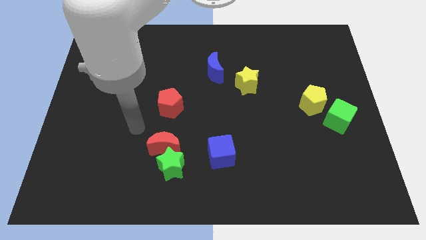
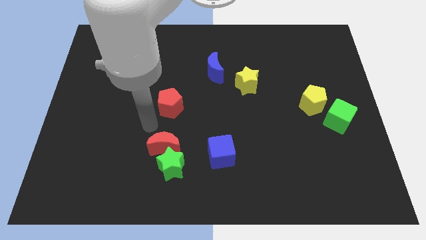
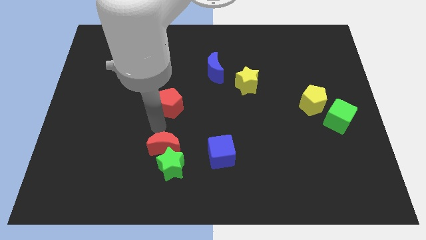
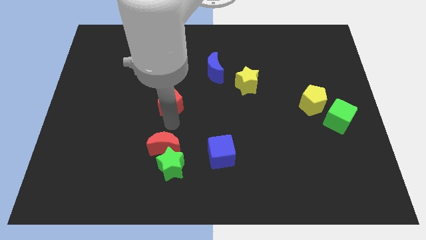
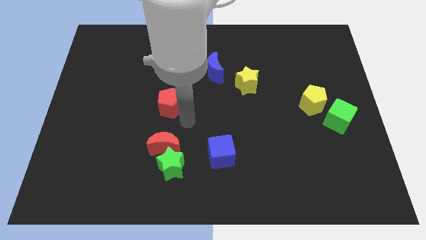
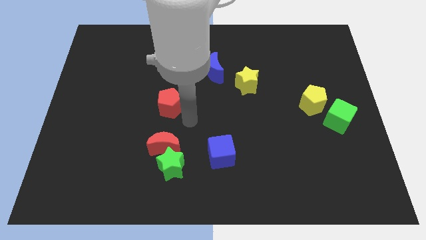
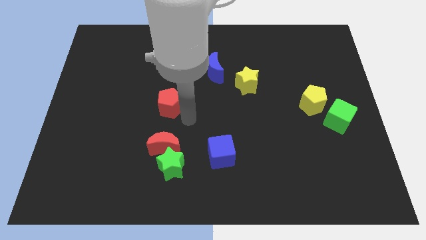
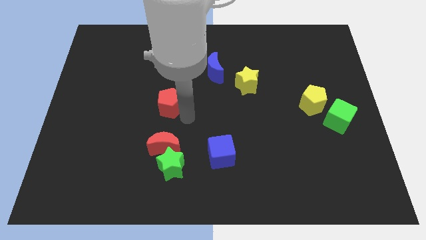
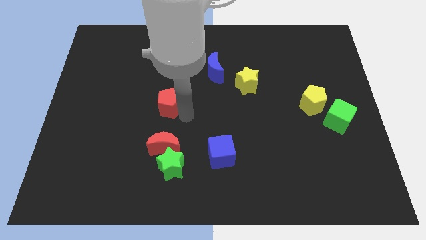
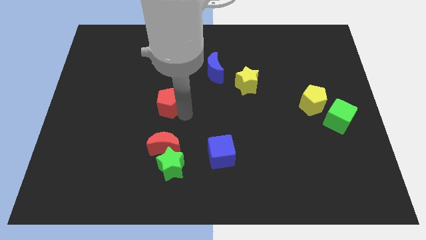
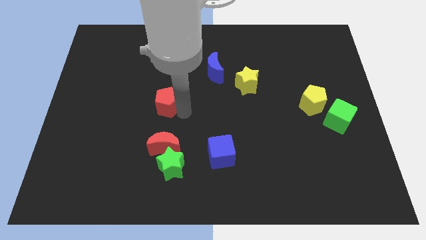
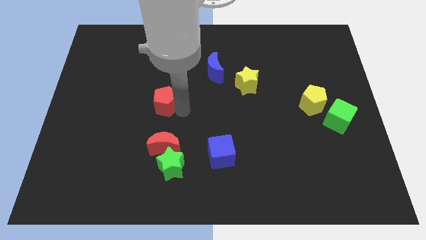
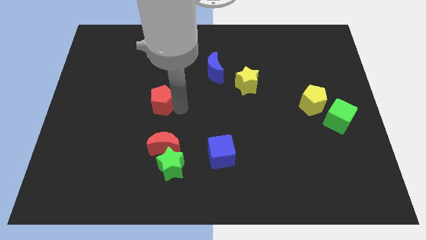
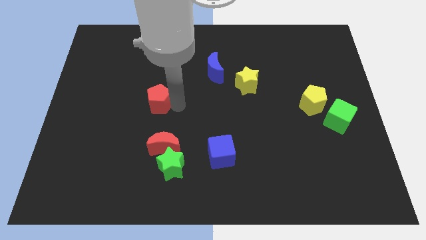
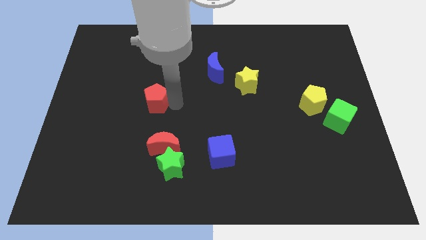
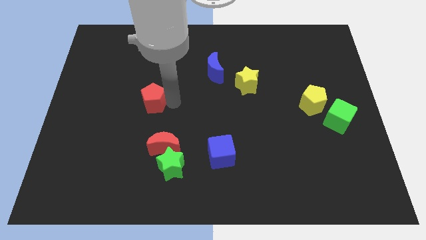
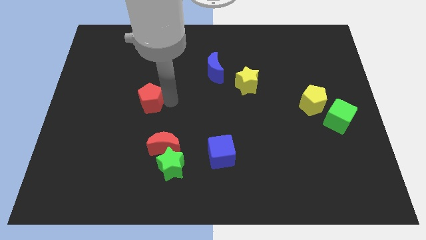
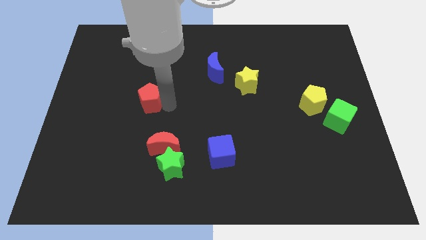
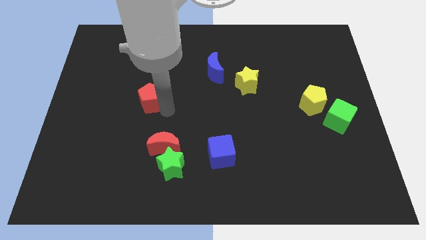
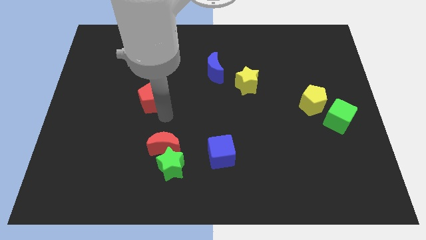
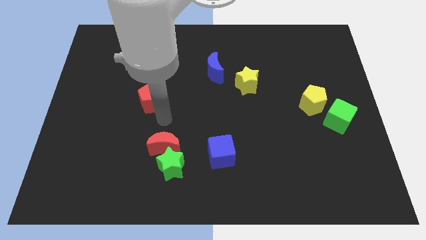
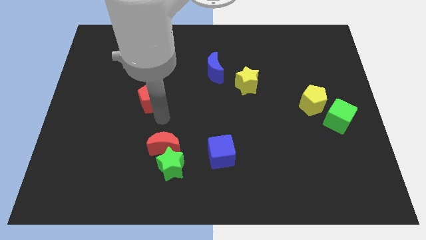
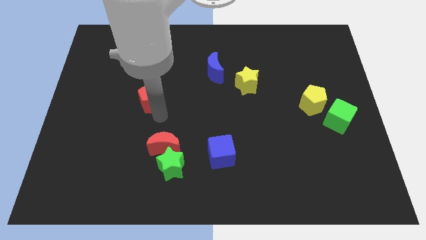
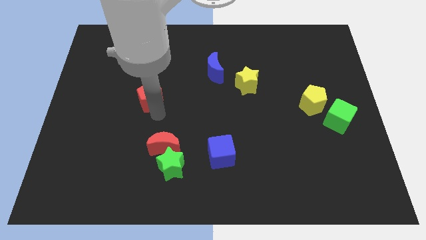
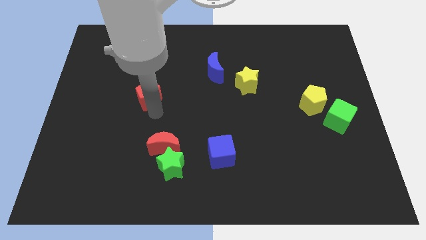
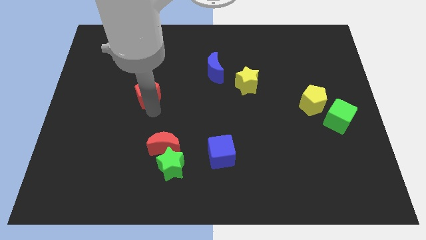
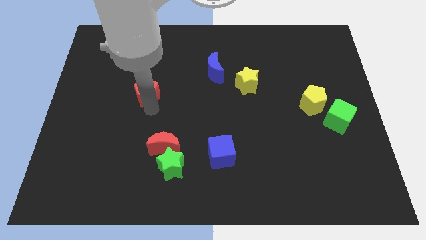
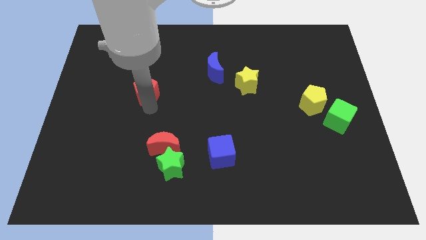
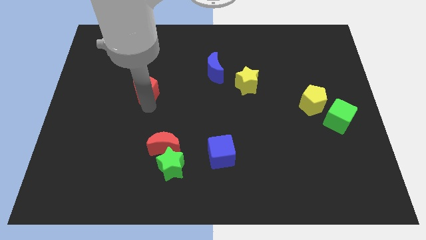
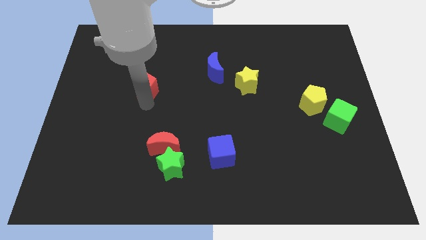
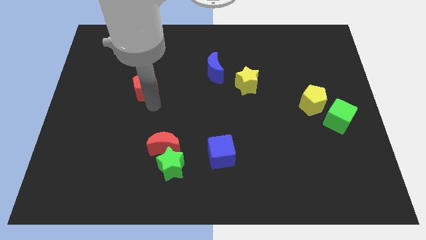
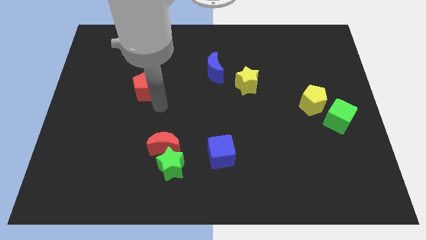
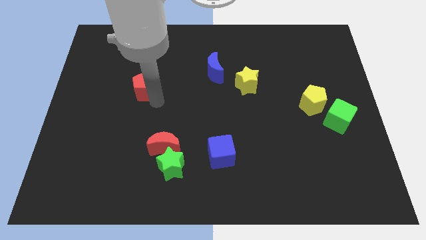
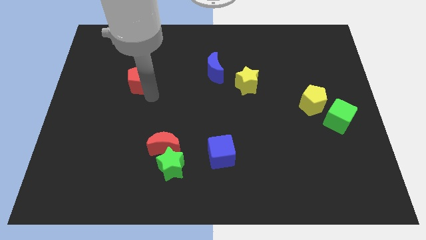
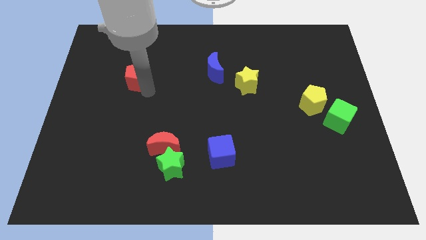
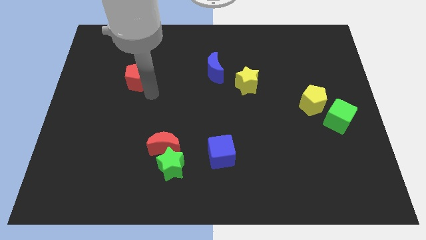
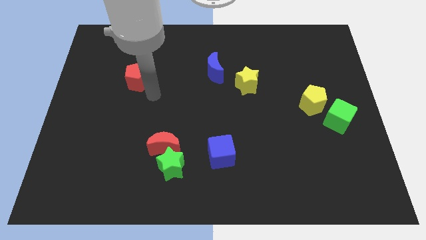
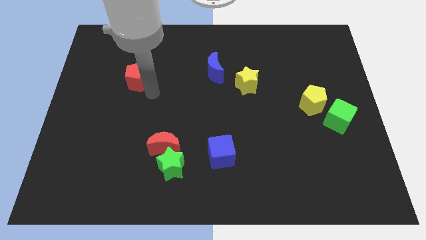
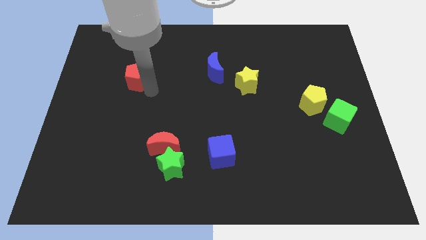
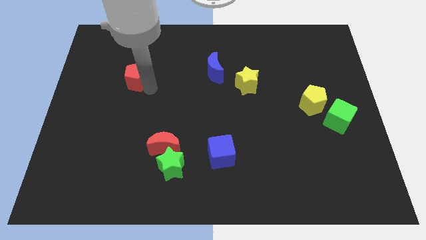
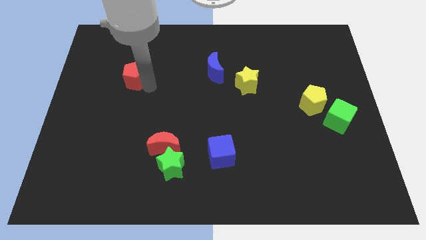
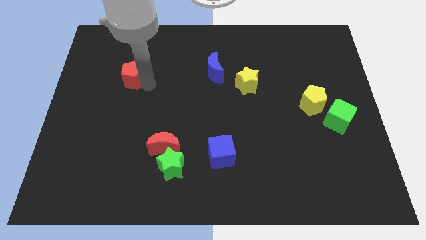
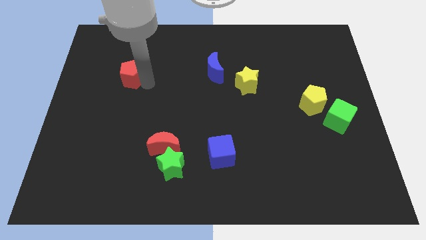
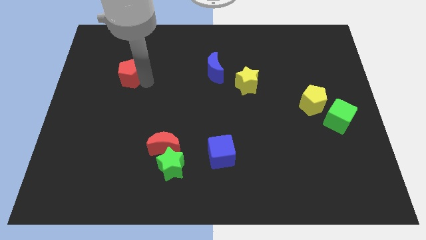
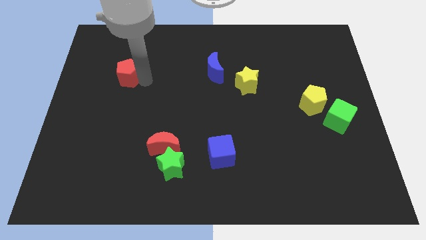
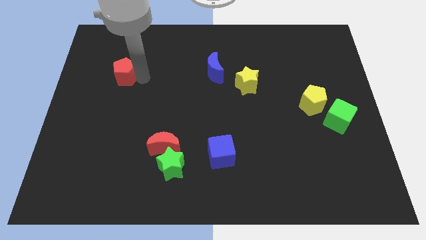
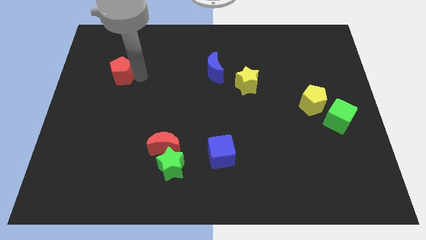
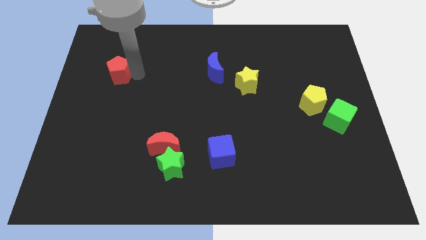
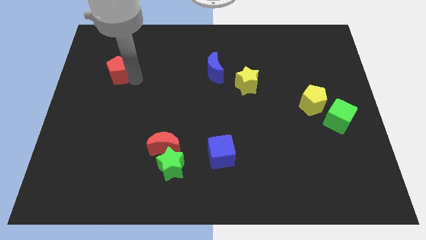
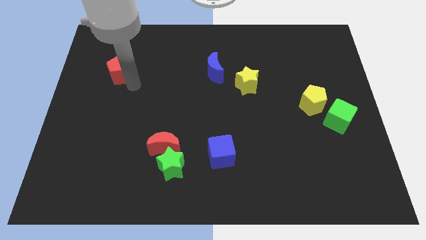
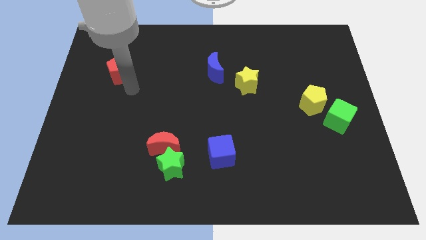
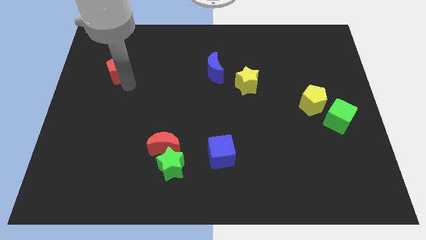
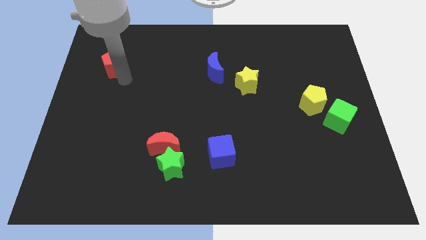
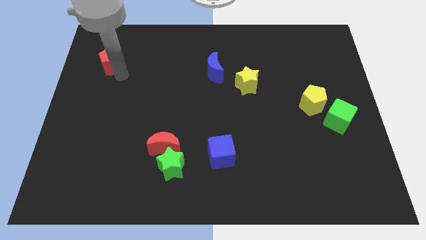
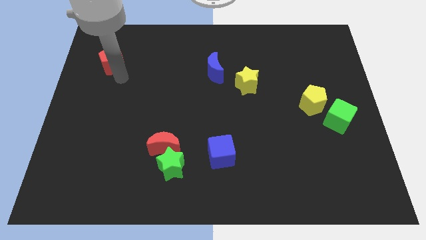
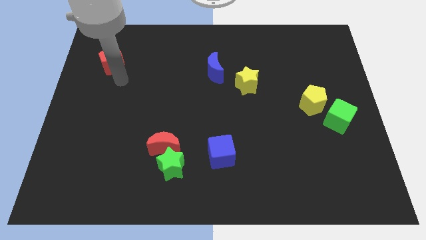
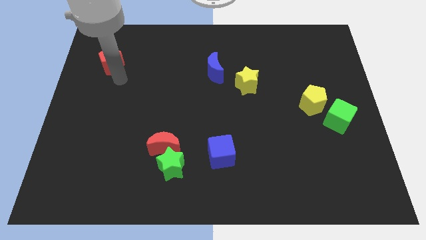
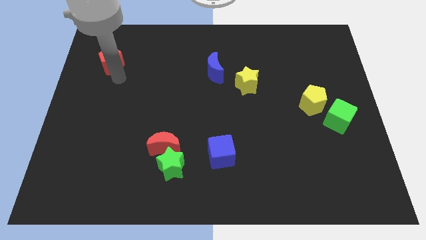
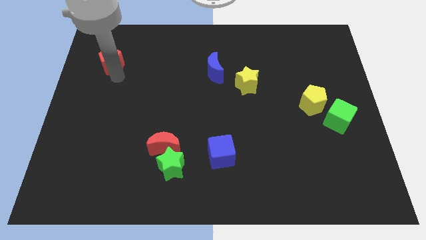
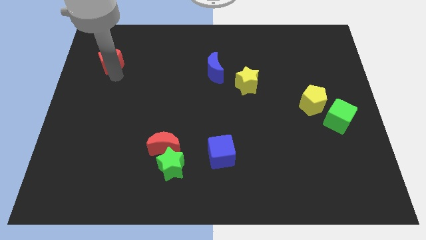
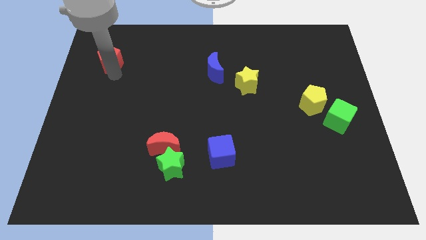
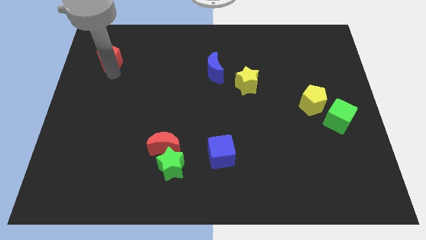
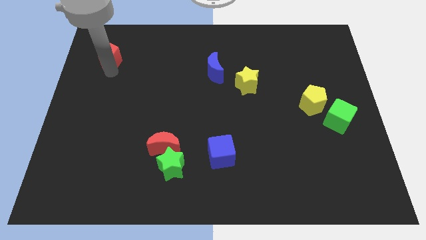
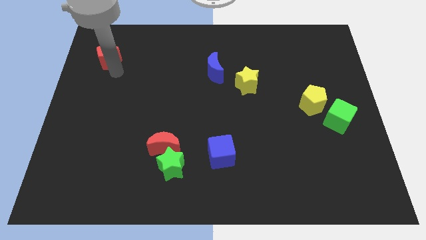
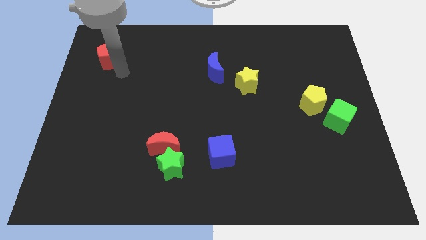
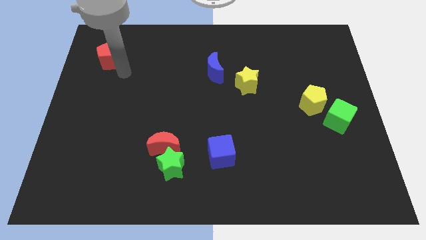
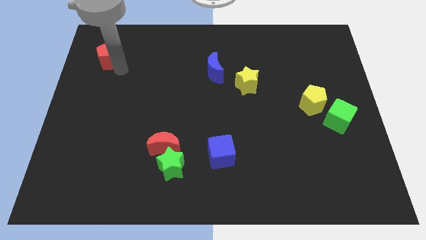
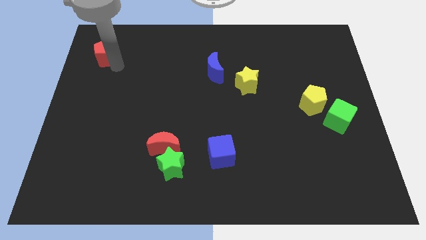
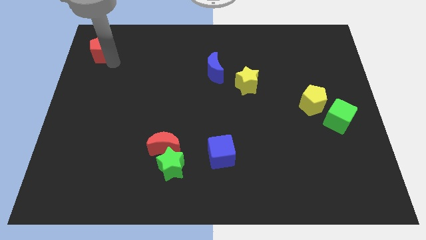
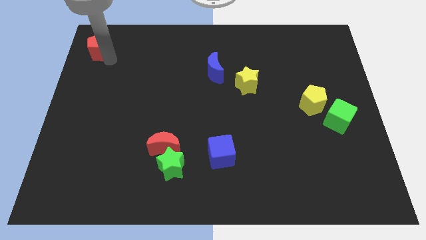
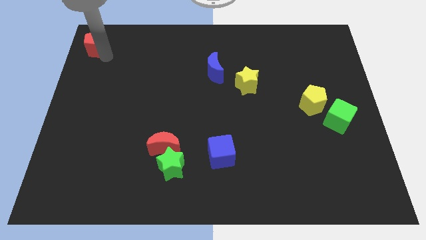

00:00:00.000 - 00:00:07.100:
put the red pentagon to the top left of the board

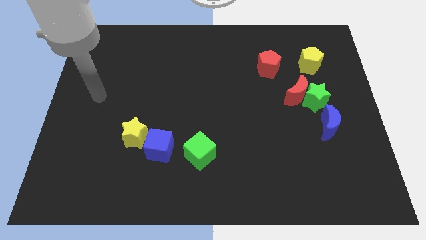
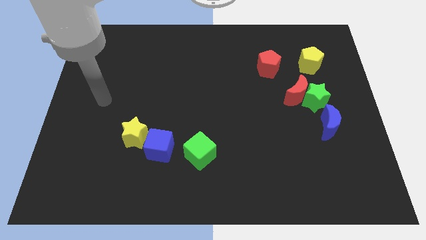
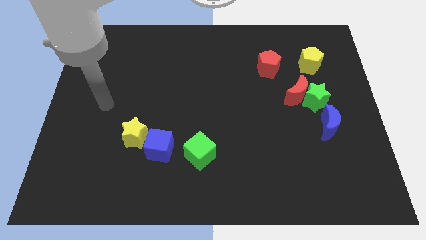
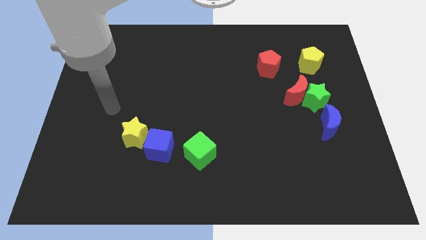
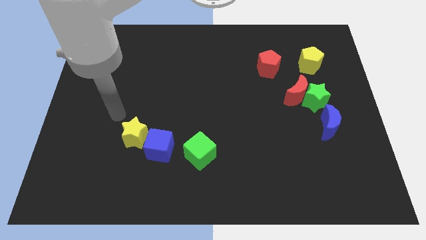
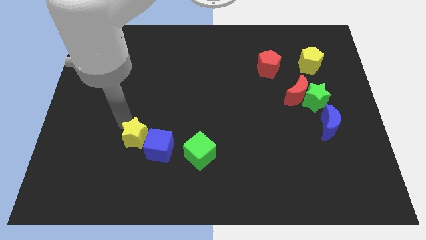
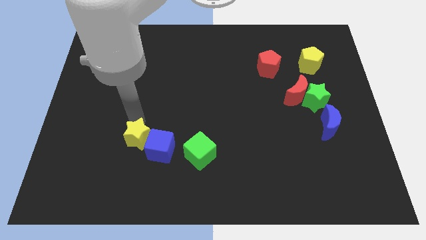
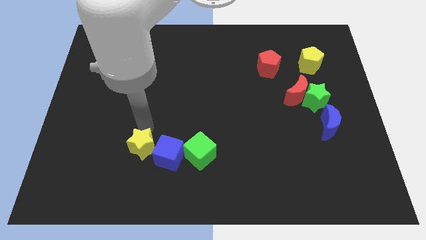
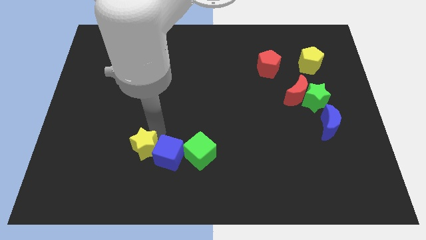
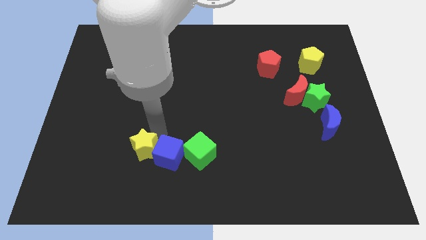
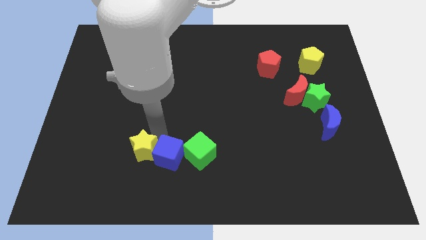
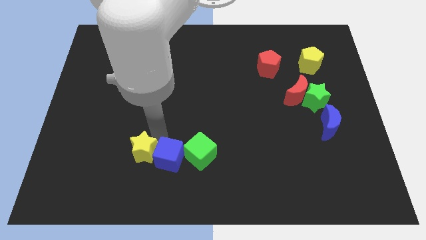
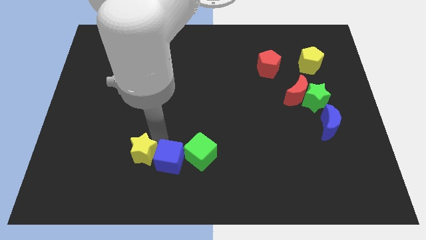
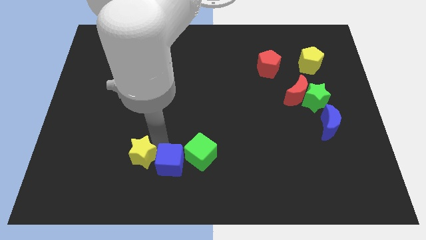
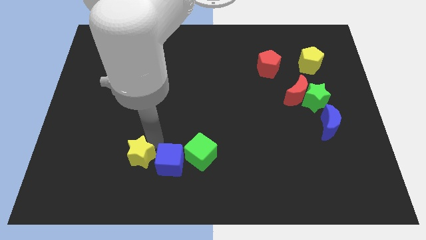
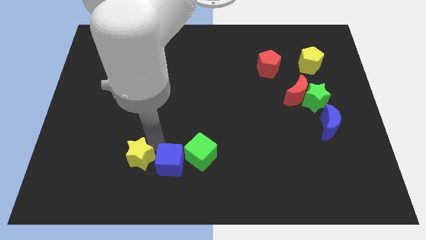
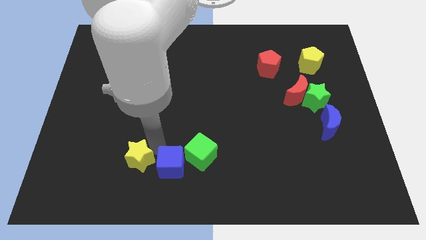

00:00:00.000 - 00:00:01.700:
push the blue cube to the bottom
